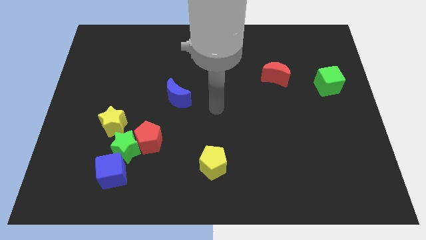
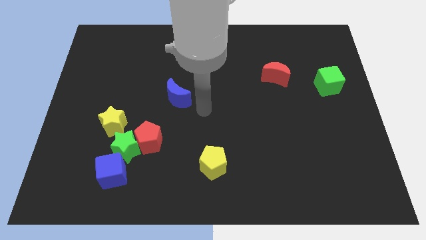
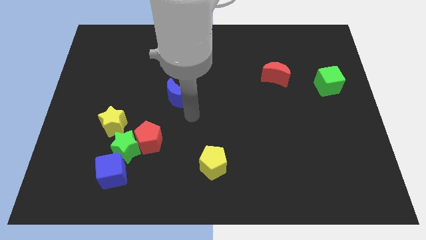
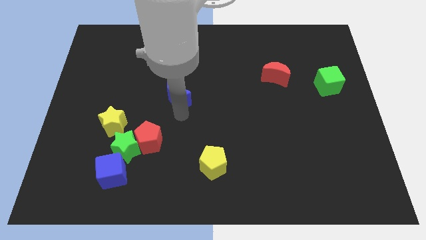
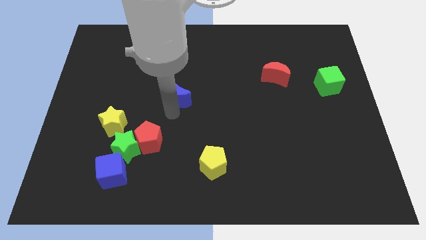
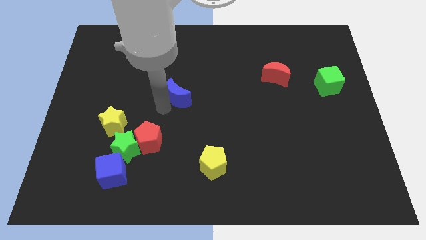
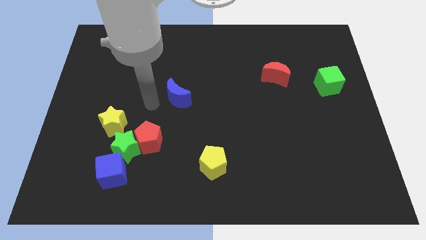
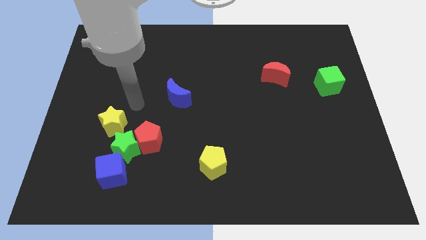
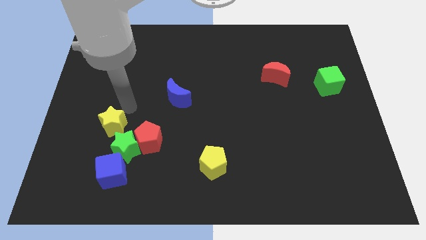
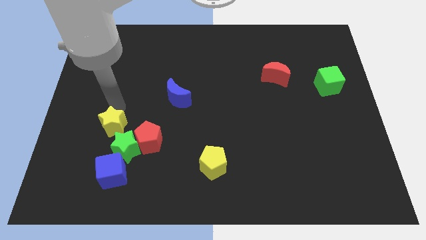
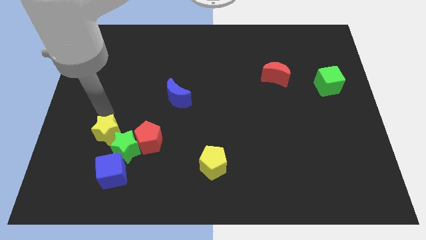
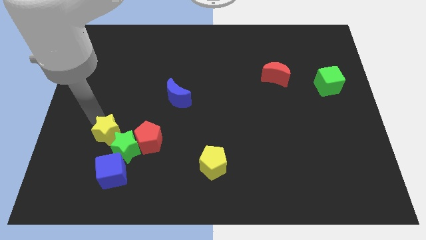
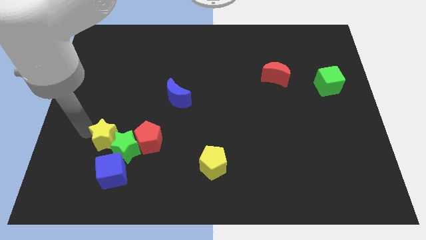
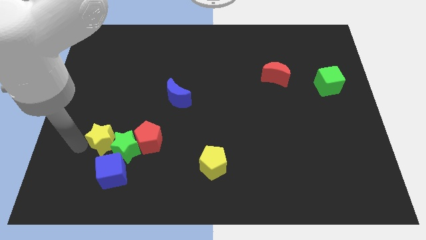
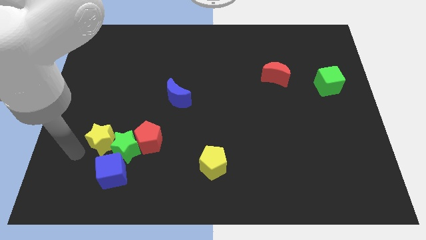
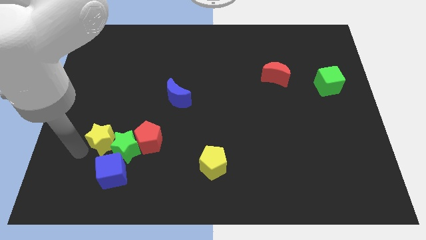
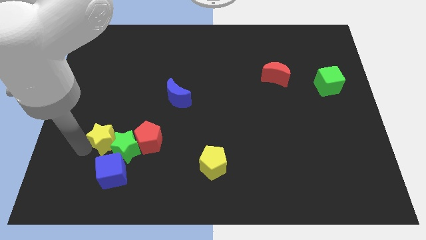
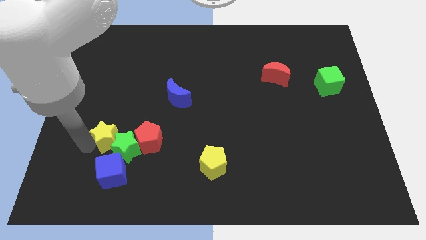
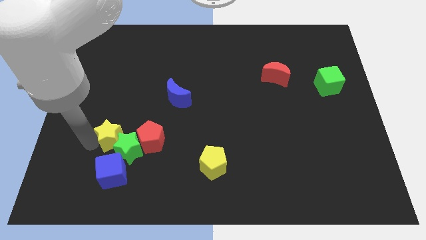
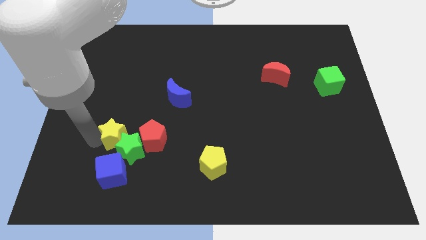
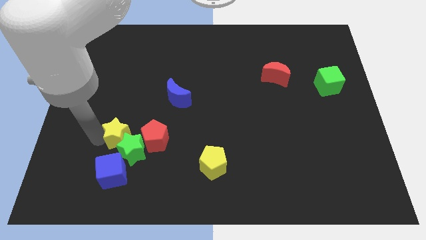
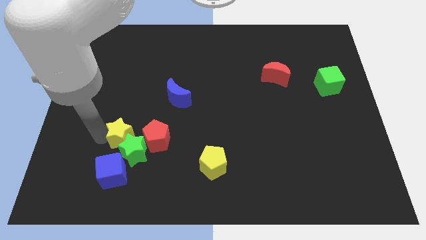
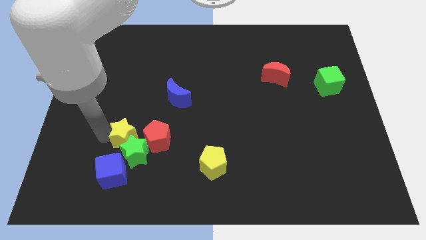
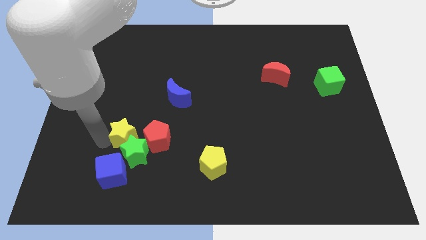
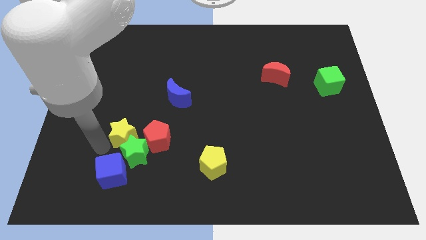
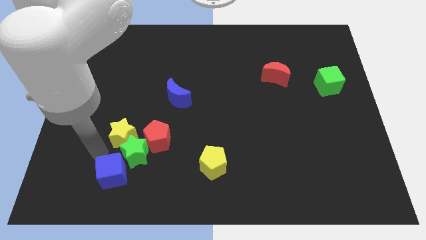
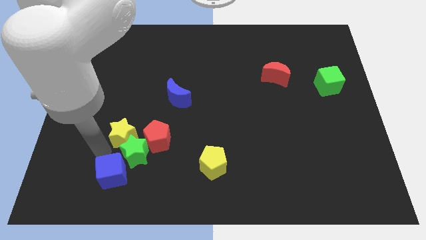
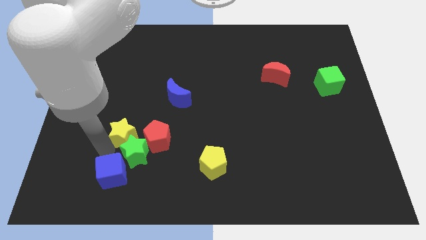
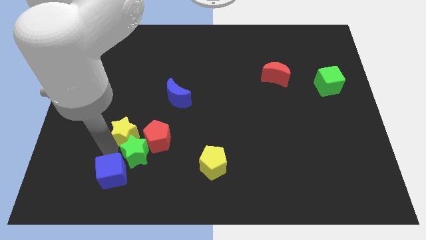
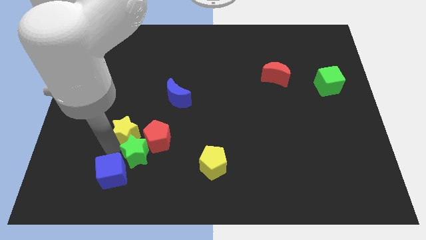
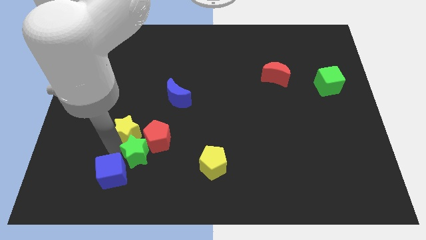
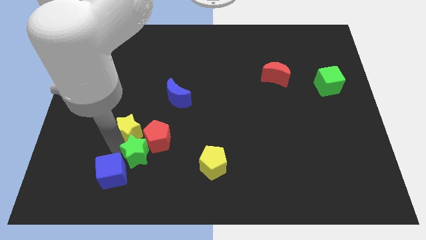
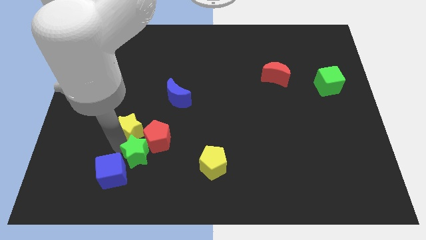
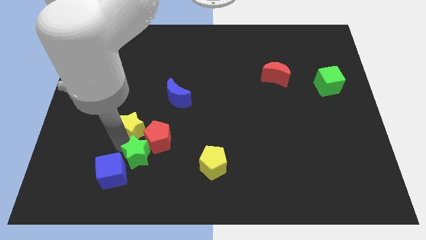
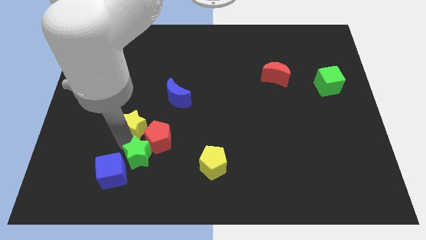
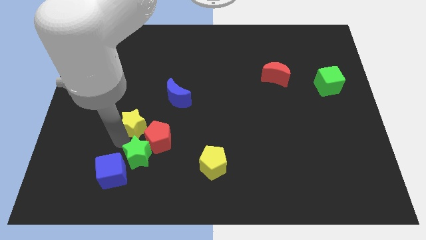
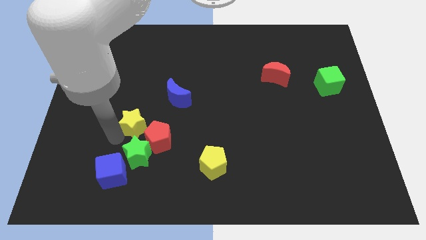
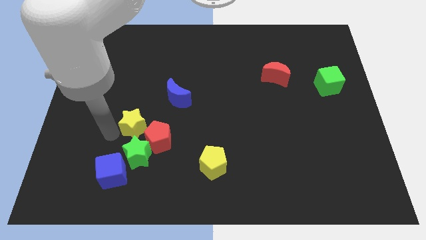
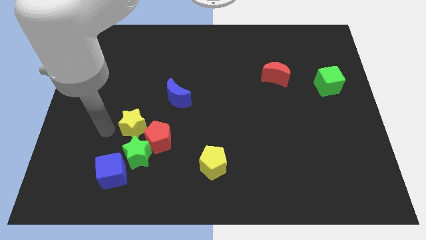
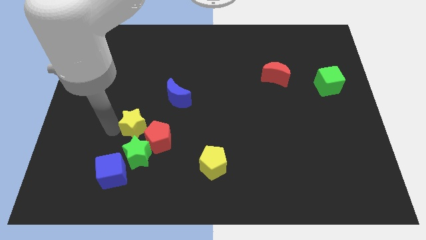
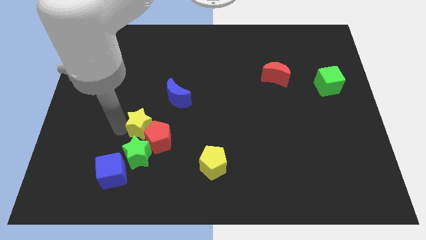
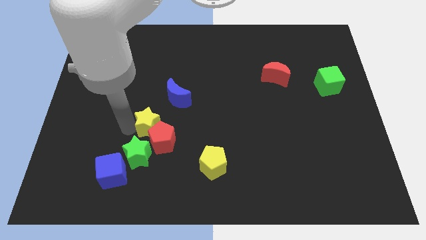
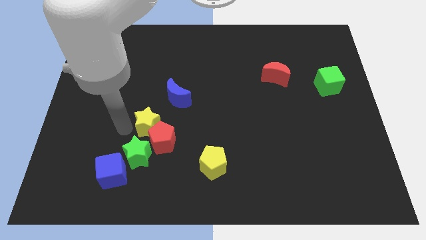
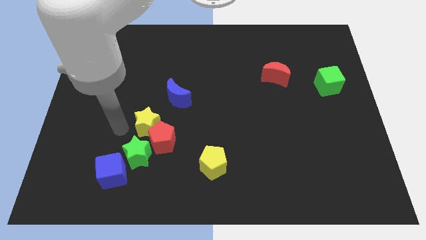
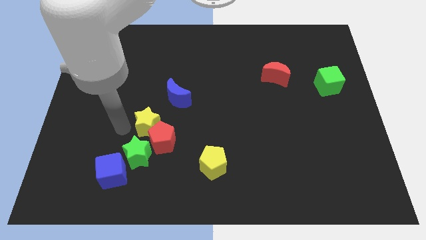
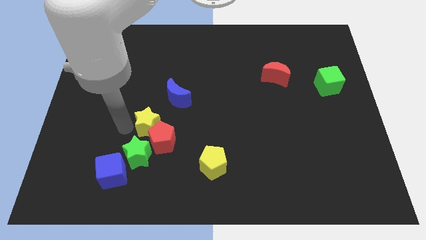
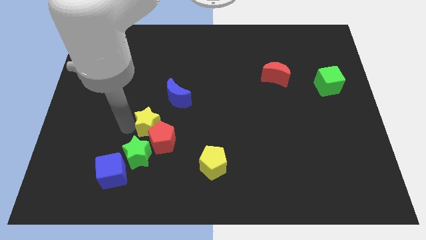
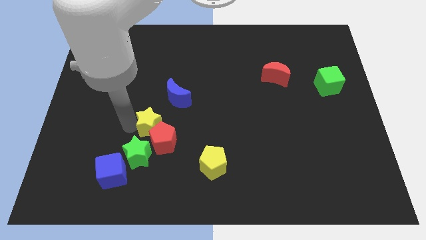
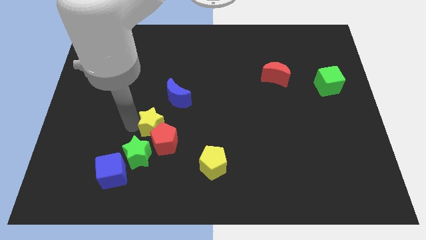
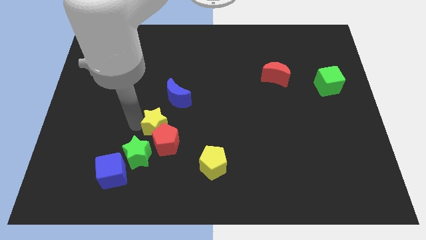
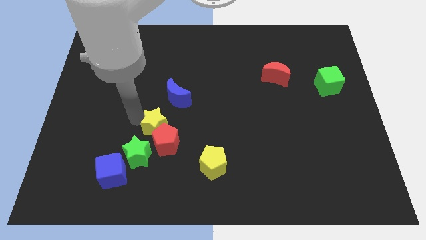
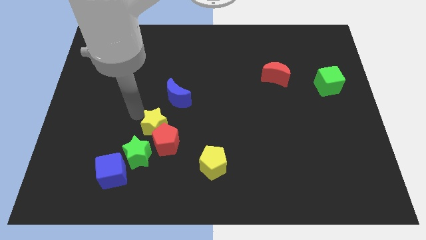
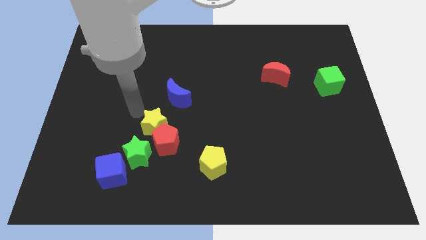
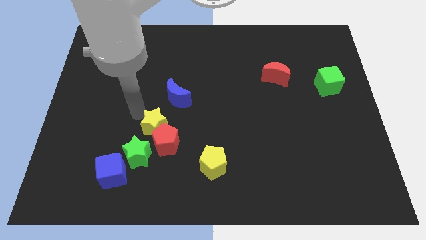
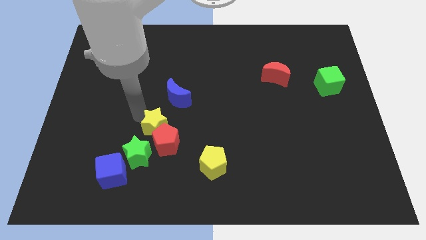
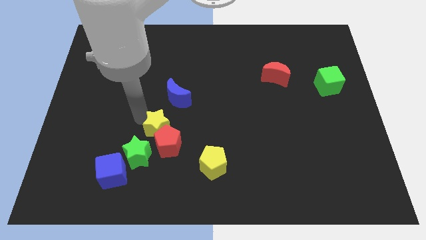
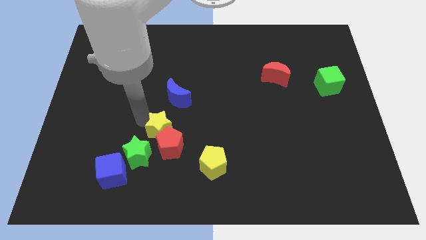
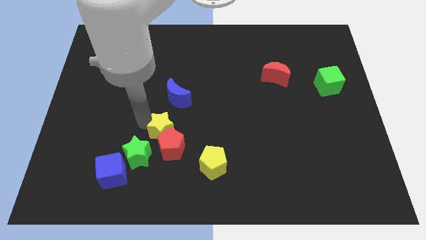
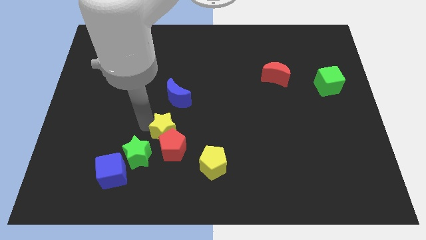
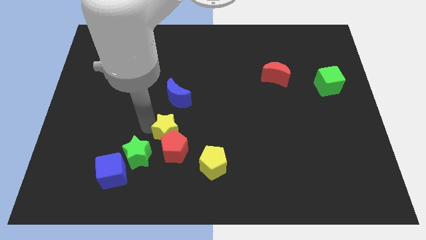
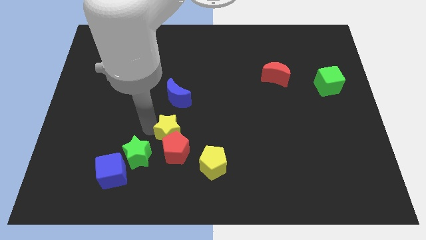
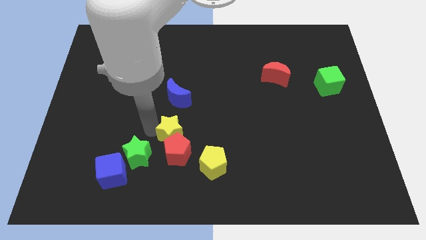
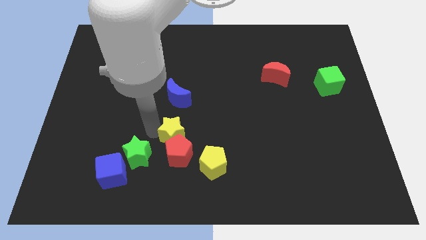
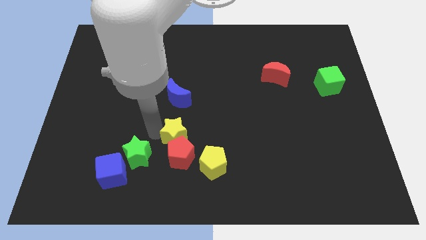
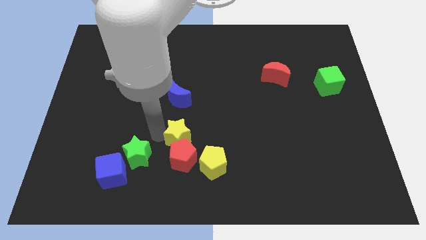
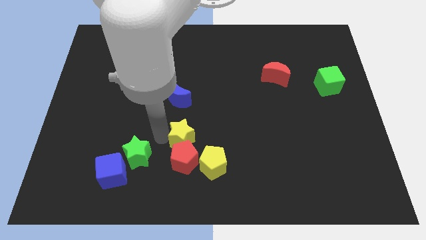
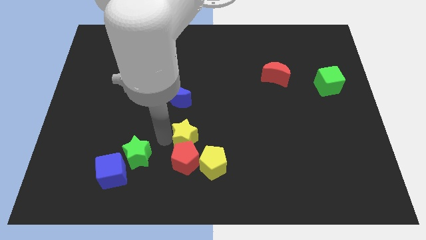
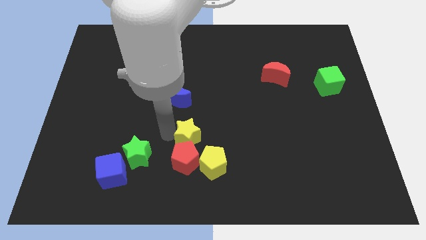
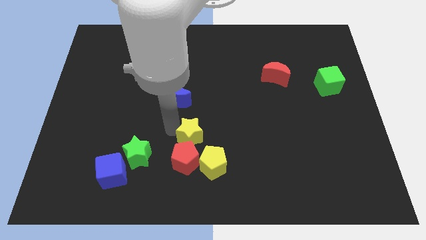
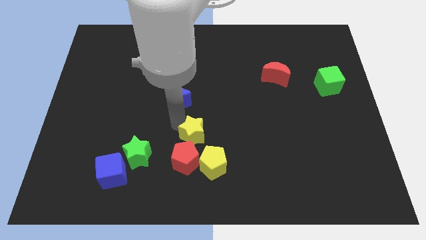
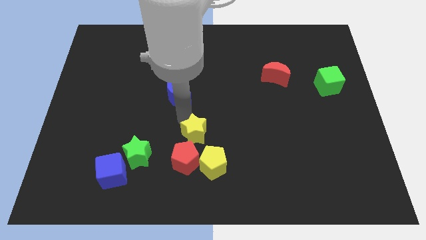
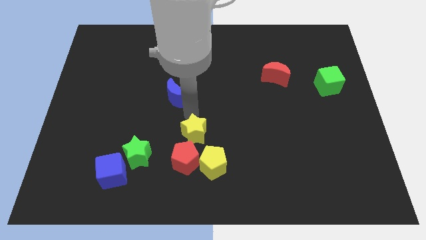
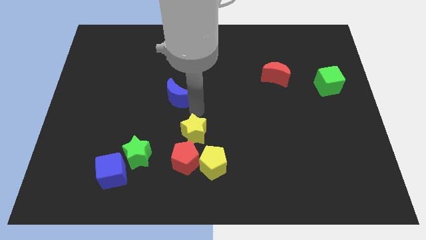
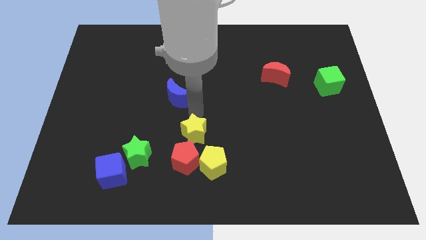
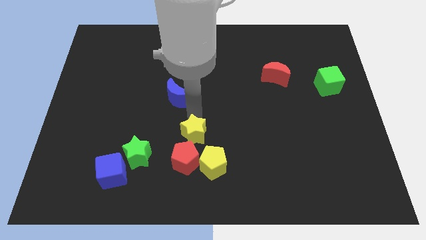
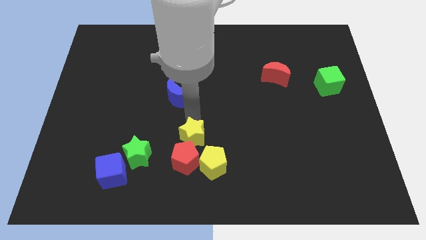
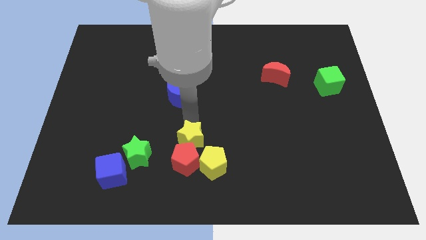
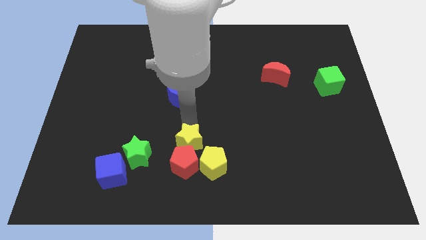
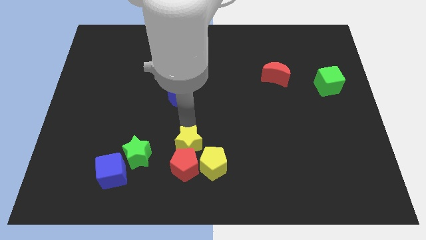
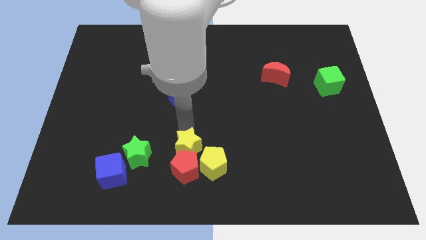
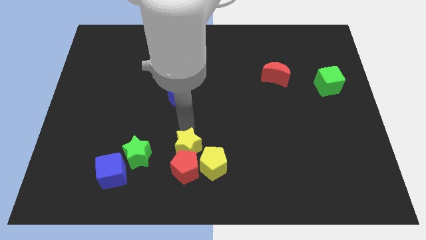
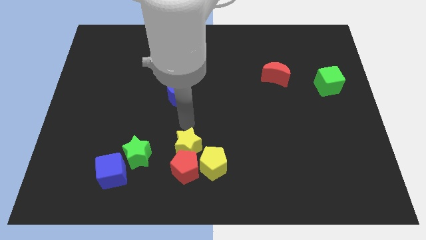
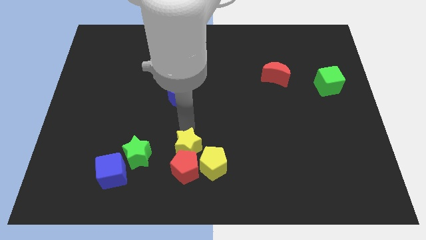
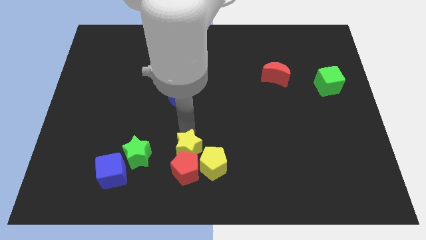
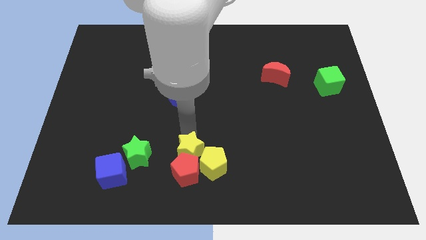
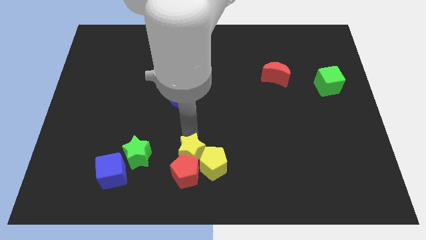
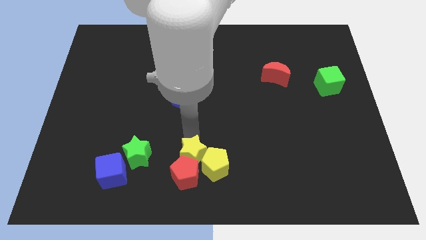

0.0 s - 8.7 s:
put the yellow star to the bottom side
